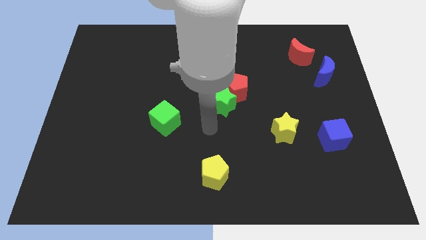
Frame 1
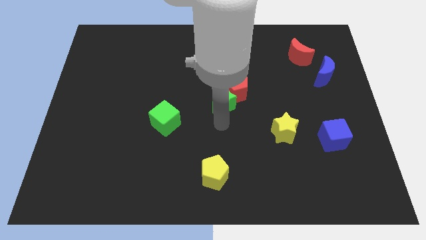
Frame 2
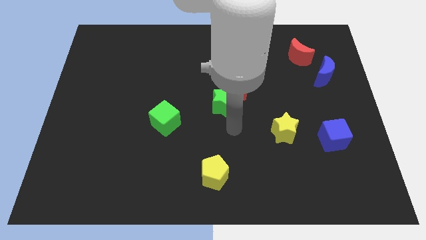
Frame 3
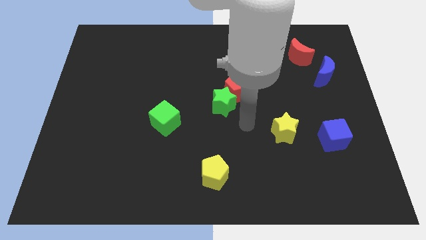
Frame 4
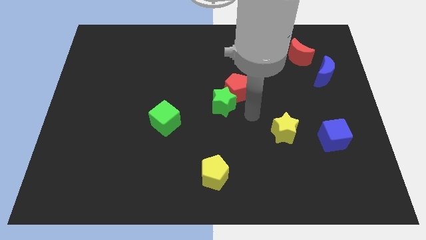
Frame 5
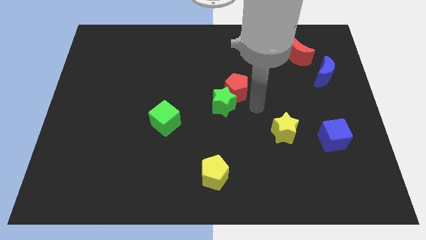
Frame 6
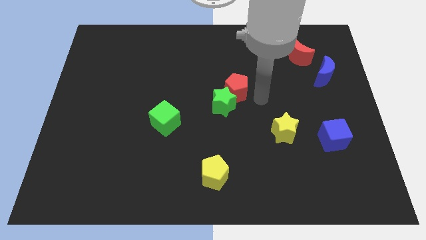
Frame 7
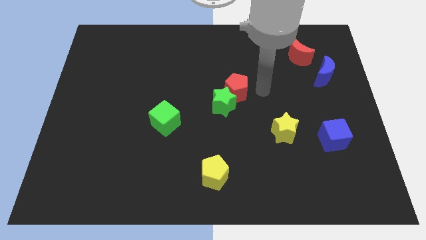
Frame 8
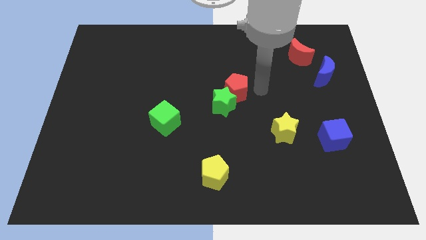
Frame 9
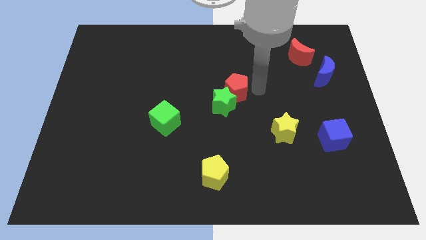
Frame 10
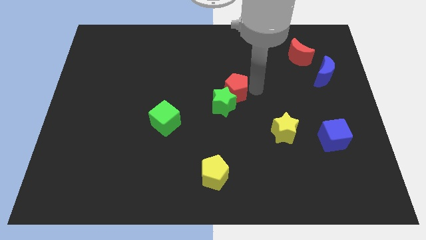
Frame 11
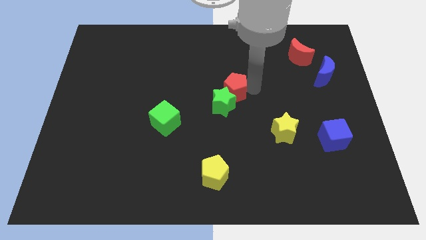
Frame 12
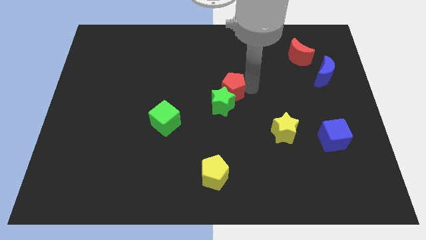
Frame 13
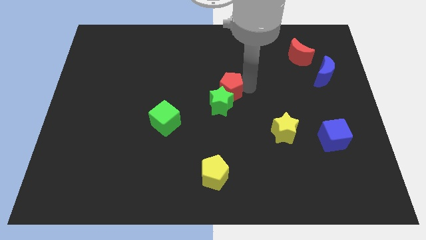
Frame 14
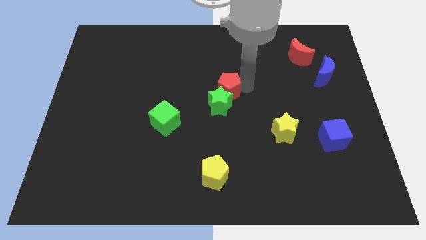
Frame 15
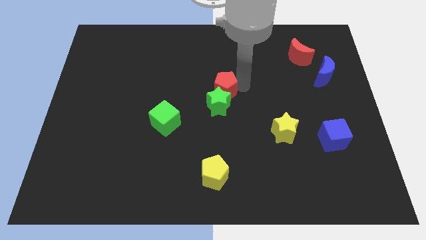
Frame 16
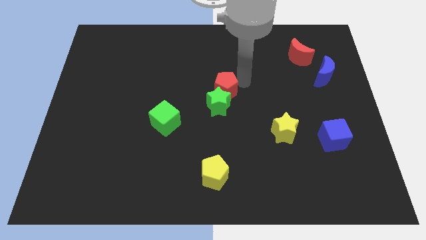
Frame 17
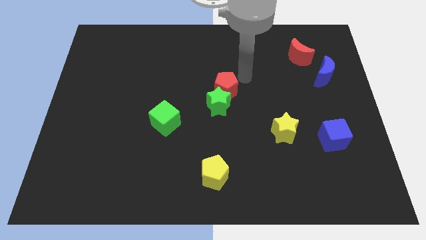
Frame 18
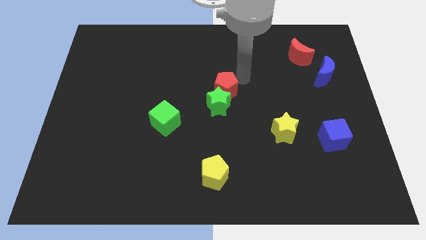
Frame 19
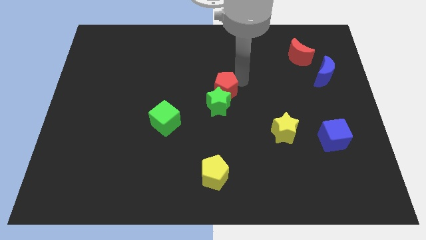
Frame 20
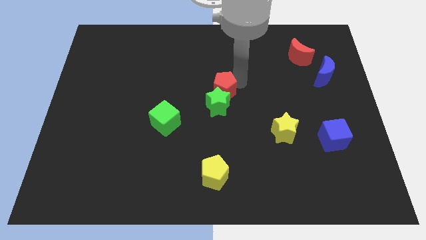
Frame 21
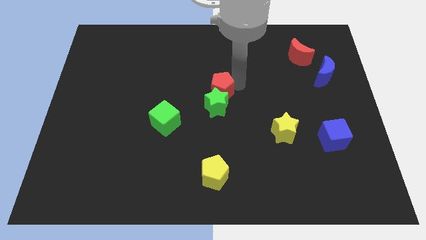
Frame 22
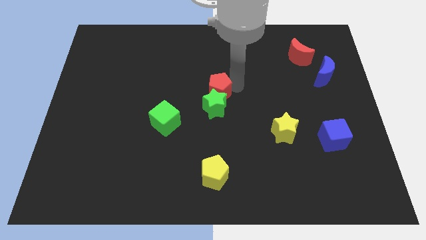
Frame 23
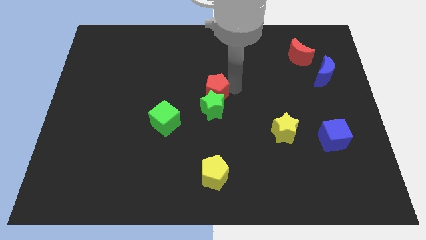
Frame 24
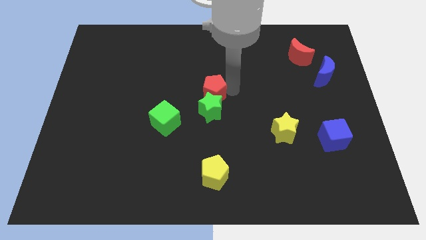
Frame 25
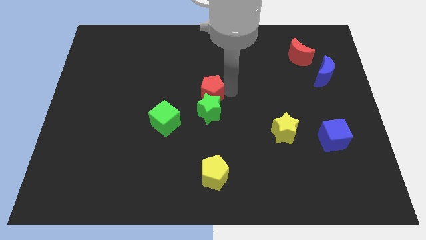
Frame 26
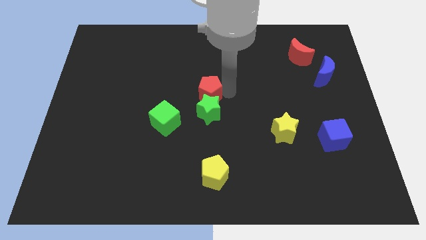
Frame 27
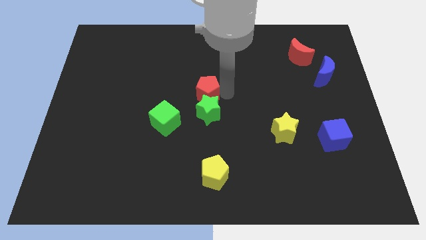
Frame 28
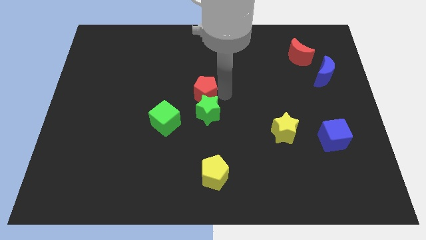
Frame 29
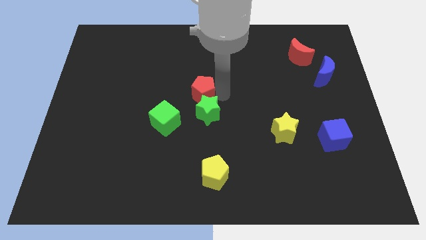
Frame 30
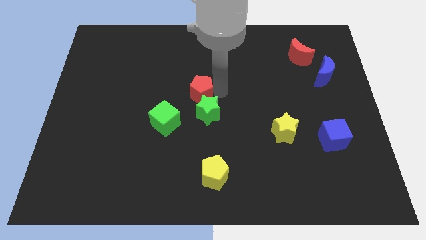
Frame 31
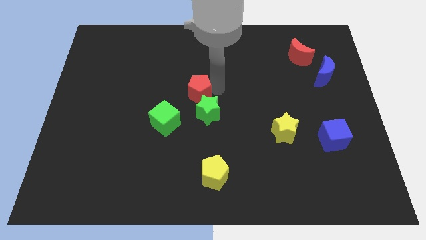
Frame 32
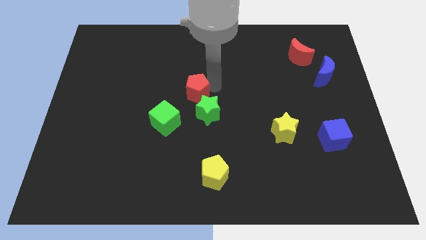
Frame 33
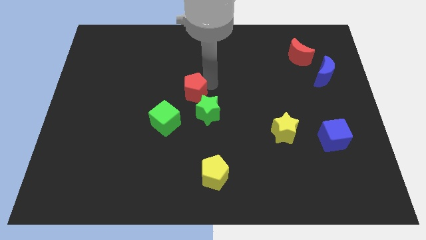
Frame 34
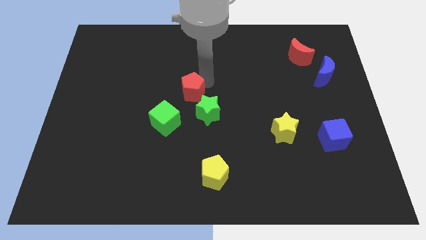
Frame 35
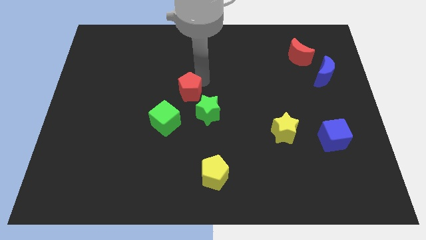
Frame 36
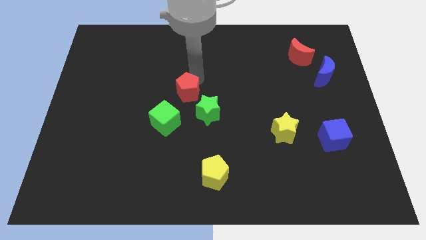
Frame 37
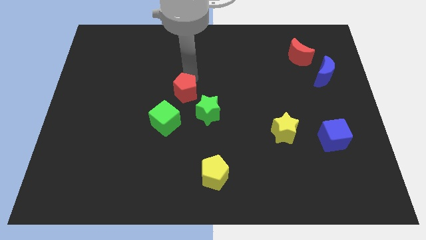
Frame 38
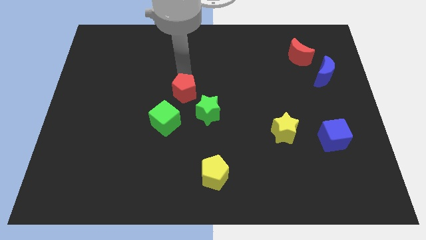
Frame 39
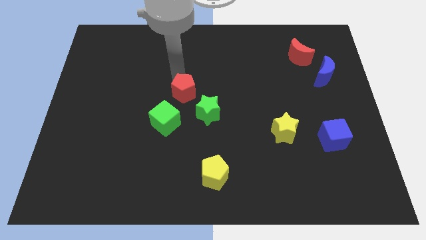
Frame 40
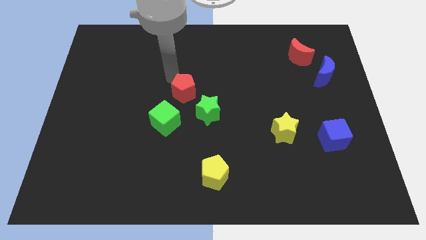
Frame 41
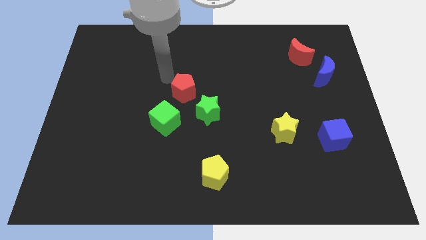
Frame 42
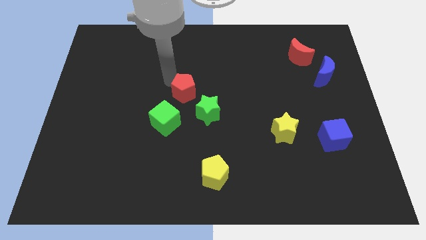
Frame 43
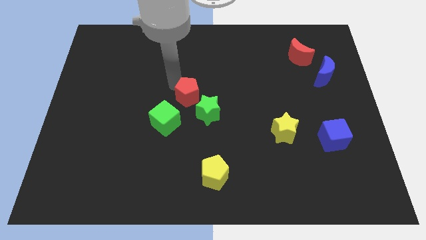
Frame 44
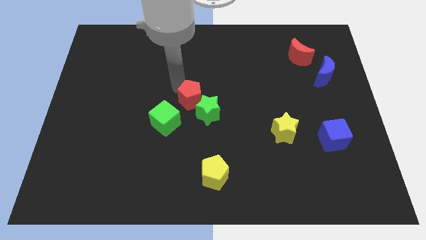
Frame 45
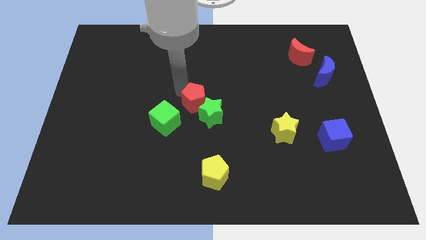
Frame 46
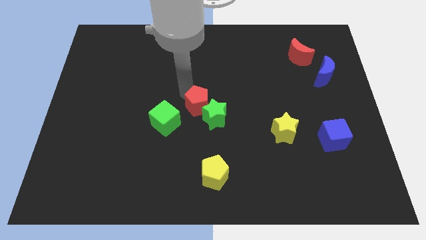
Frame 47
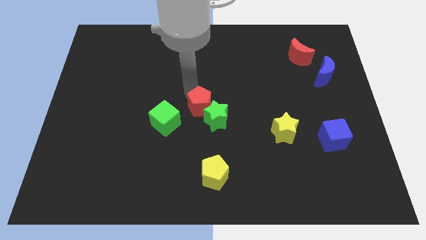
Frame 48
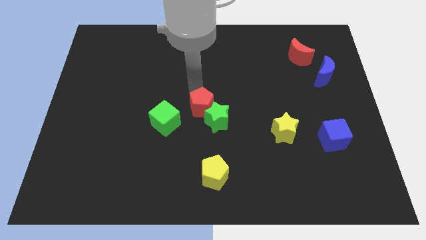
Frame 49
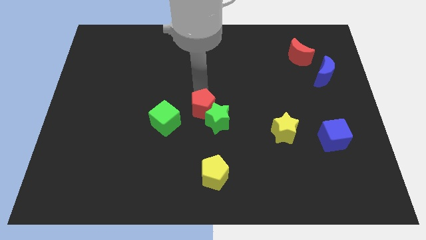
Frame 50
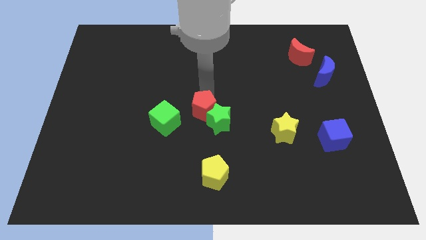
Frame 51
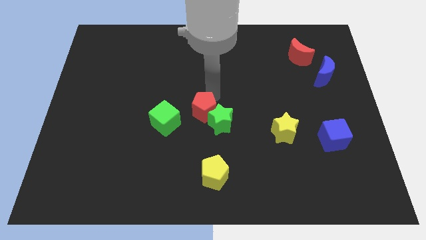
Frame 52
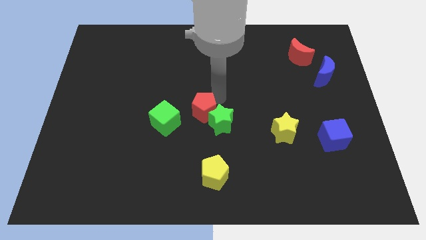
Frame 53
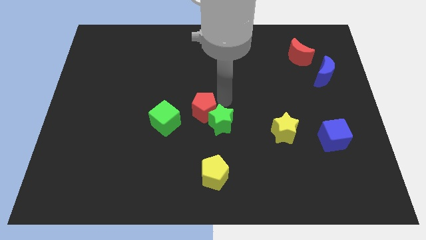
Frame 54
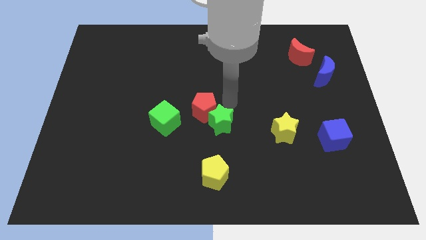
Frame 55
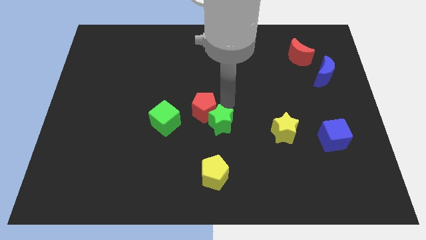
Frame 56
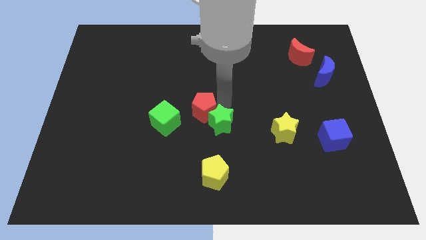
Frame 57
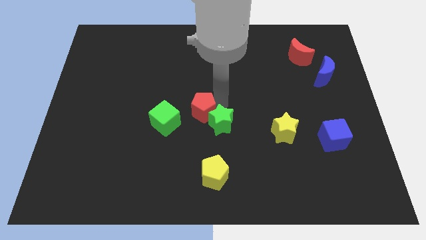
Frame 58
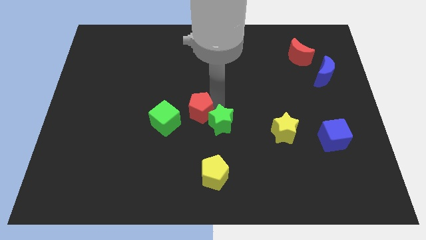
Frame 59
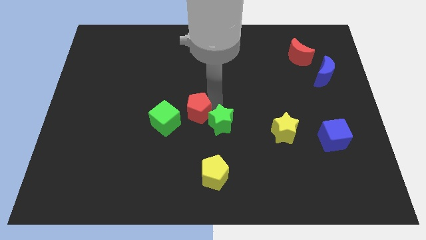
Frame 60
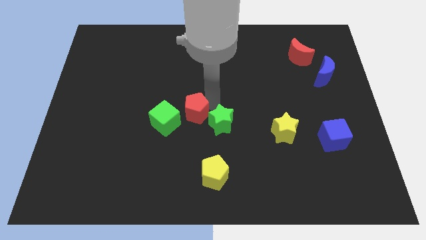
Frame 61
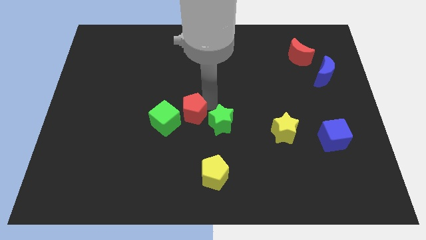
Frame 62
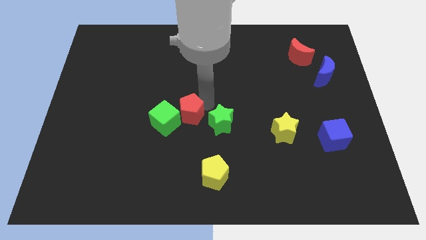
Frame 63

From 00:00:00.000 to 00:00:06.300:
put the red pentagon to the green cube

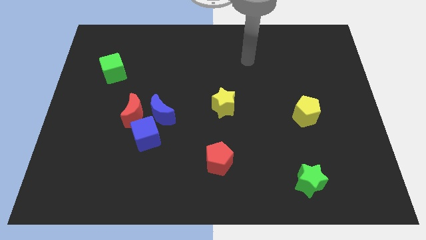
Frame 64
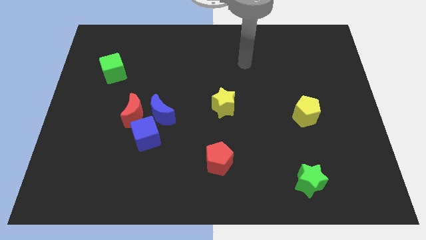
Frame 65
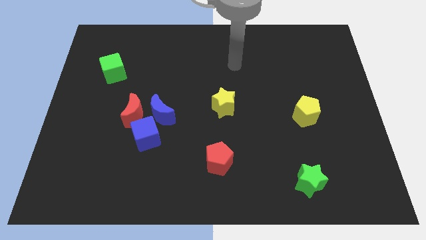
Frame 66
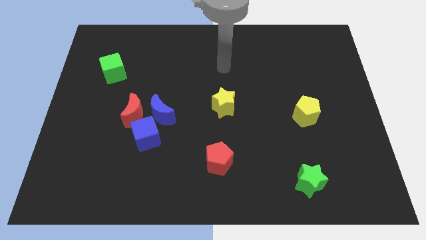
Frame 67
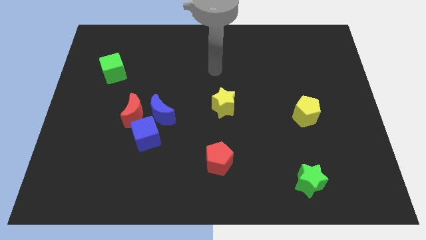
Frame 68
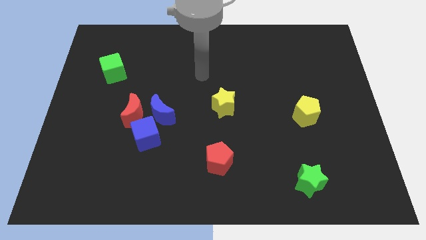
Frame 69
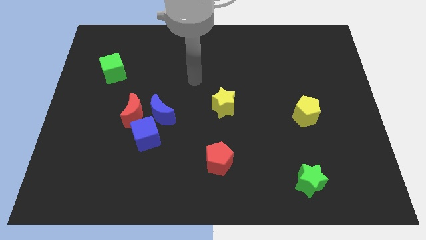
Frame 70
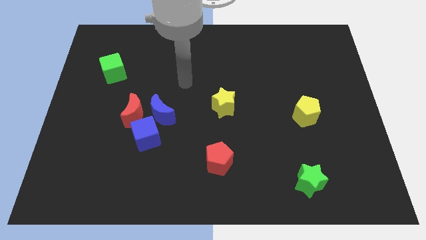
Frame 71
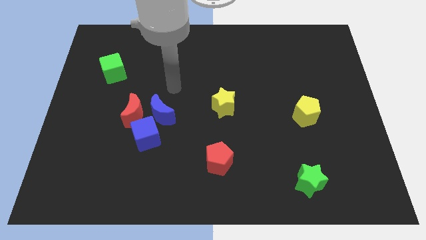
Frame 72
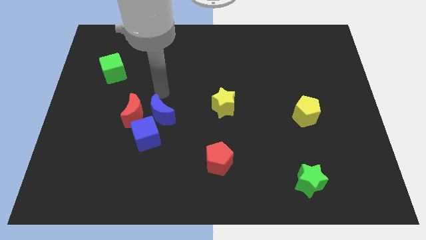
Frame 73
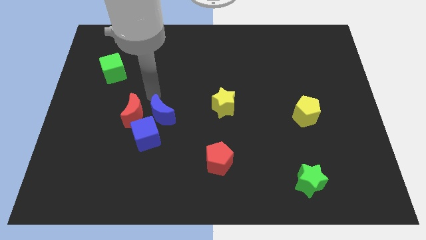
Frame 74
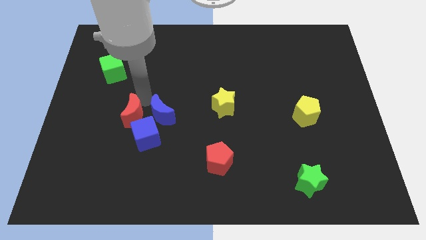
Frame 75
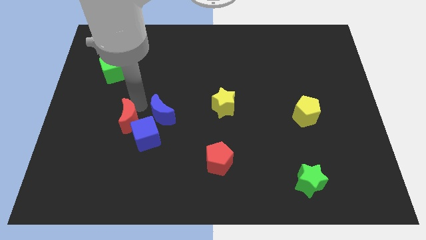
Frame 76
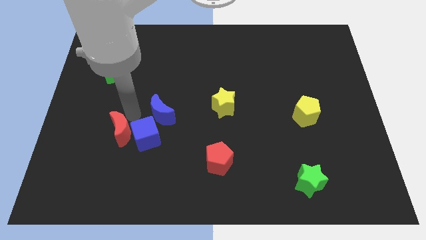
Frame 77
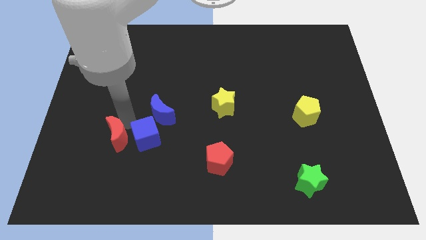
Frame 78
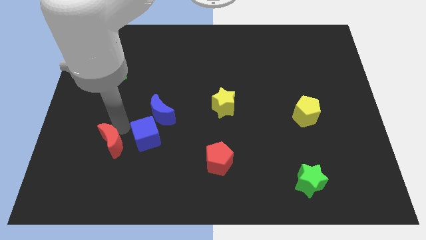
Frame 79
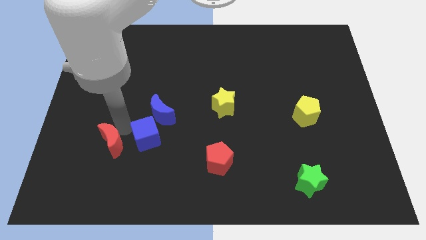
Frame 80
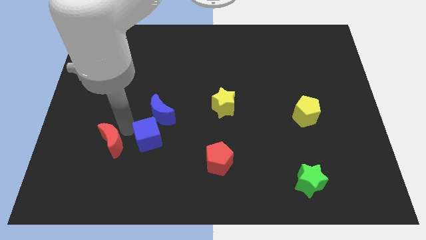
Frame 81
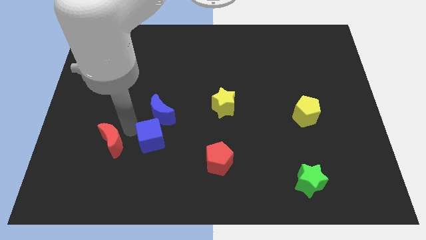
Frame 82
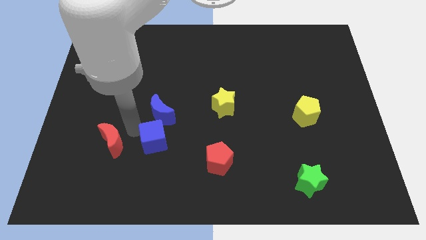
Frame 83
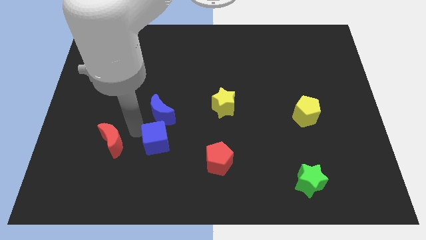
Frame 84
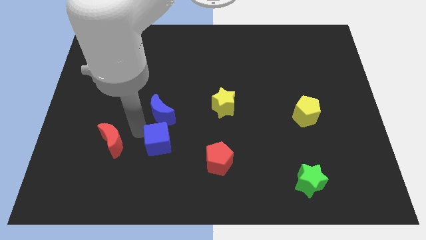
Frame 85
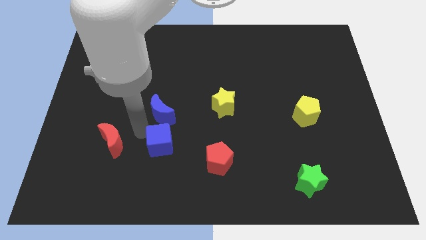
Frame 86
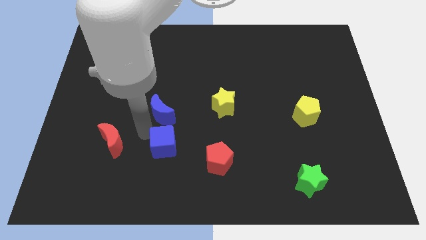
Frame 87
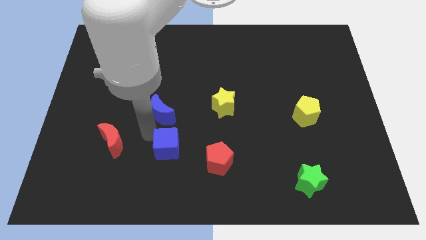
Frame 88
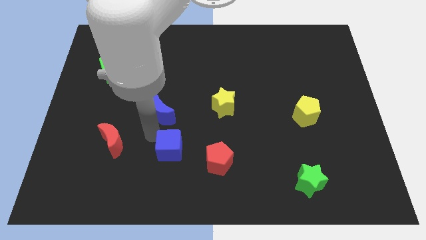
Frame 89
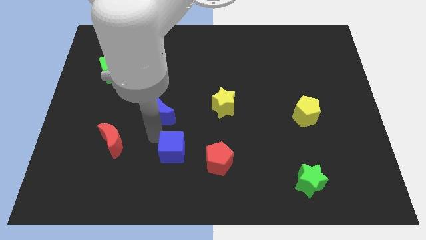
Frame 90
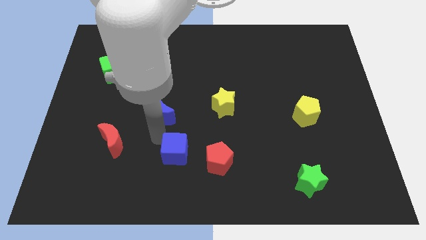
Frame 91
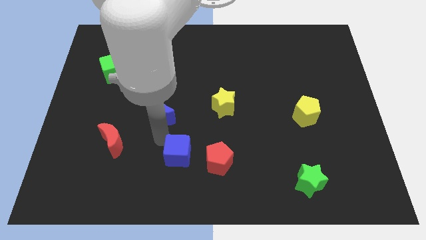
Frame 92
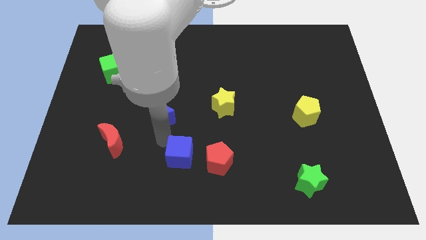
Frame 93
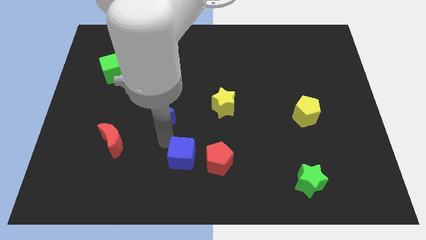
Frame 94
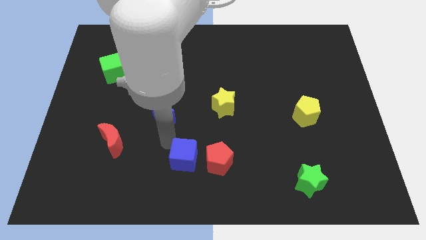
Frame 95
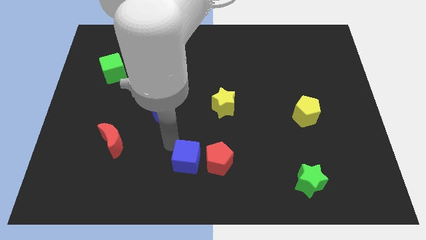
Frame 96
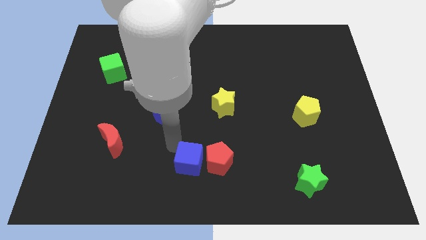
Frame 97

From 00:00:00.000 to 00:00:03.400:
slide the blue cube next to the red pentagon
